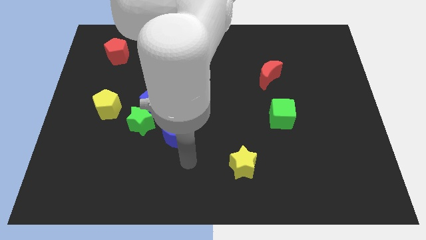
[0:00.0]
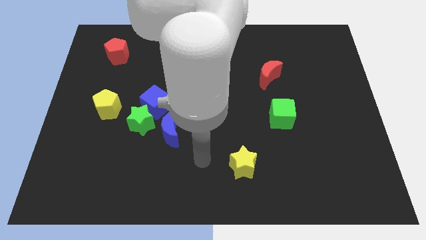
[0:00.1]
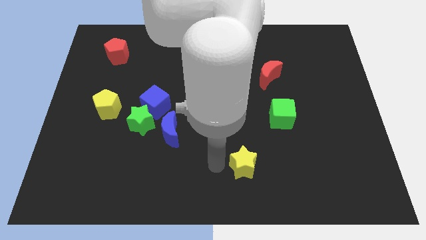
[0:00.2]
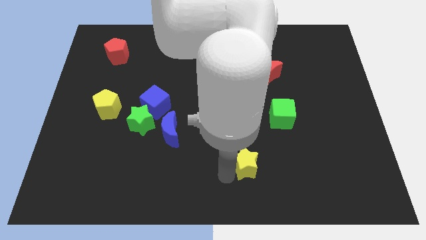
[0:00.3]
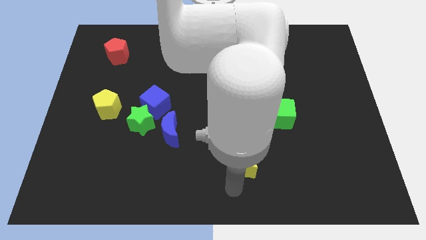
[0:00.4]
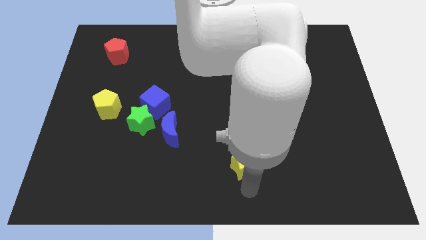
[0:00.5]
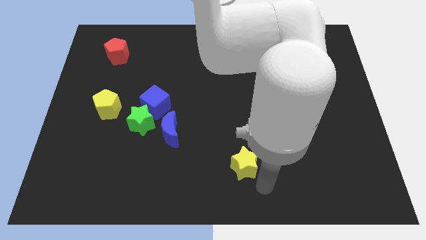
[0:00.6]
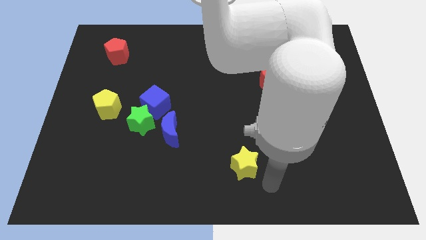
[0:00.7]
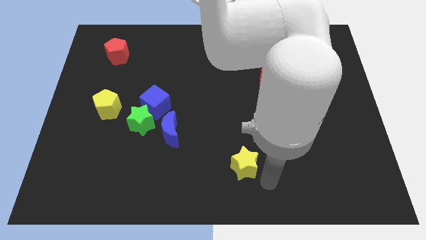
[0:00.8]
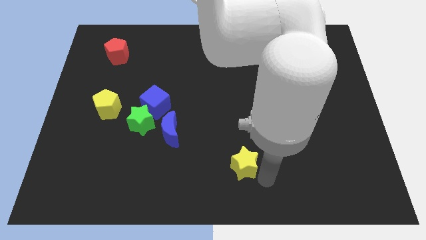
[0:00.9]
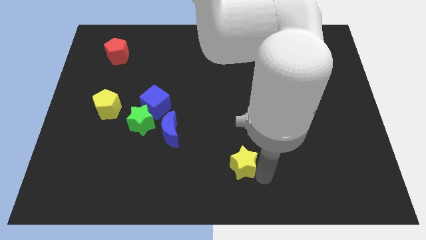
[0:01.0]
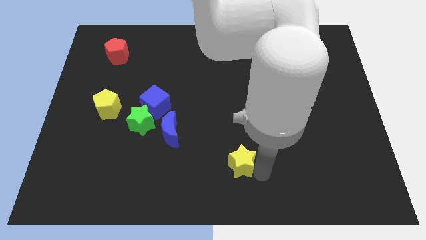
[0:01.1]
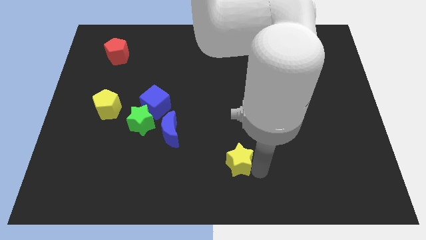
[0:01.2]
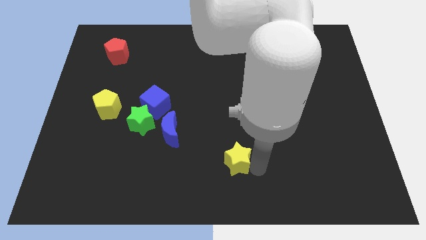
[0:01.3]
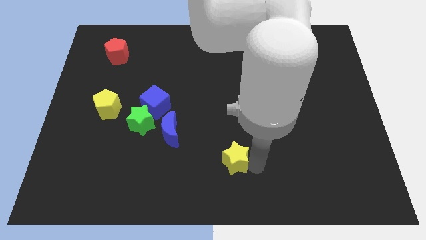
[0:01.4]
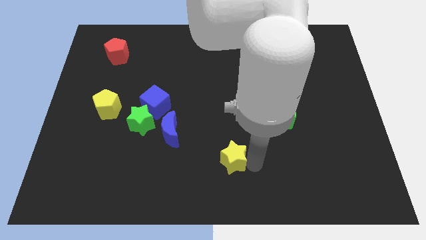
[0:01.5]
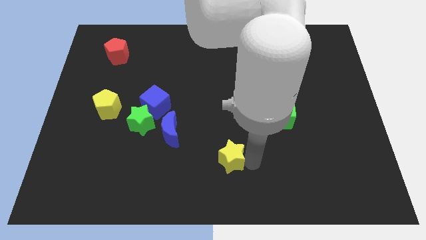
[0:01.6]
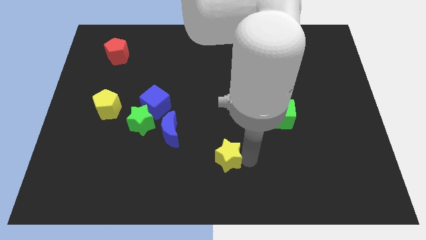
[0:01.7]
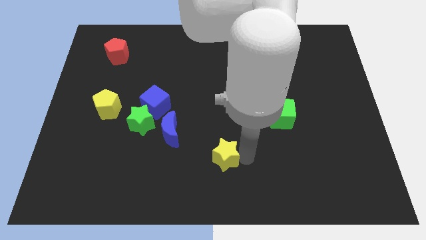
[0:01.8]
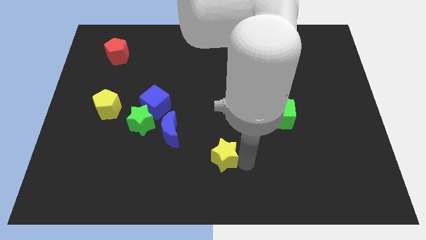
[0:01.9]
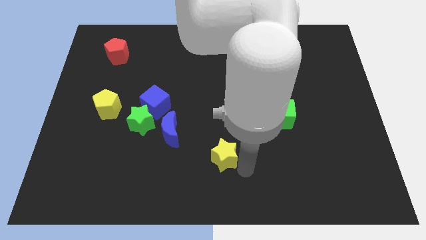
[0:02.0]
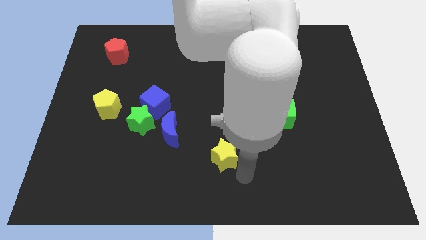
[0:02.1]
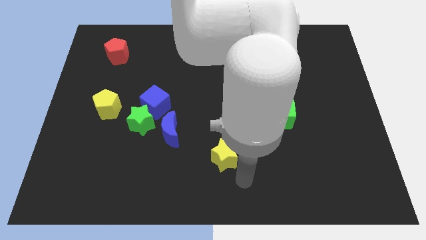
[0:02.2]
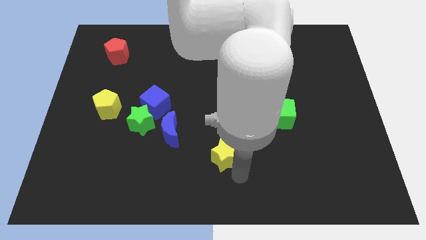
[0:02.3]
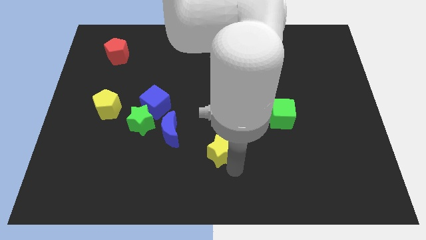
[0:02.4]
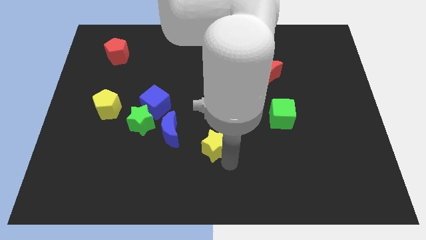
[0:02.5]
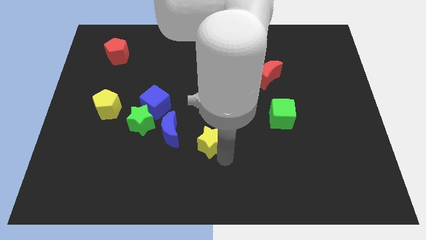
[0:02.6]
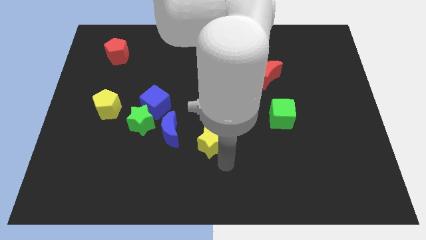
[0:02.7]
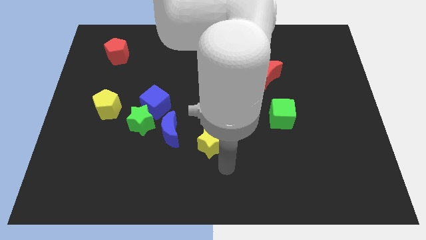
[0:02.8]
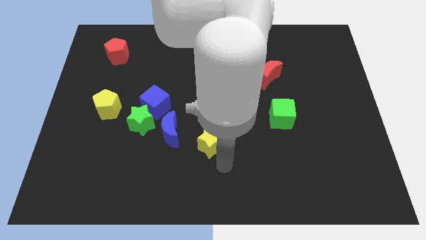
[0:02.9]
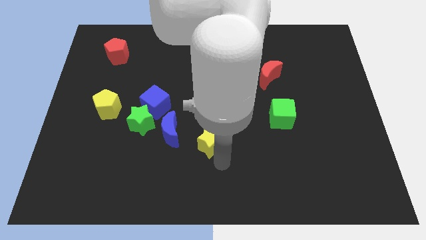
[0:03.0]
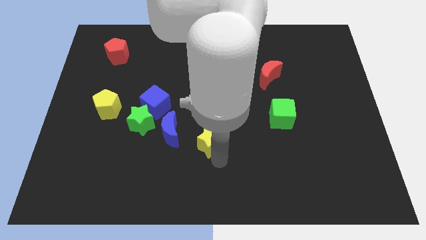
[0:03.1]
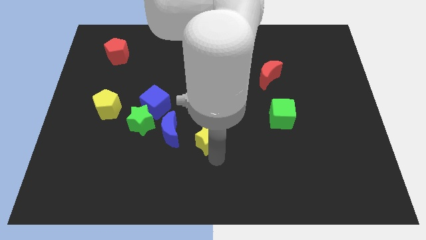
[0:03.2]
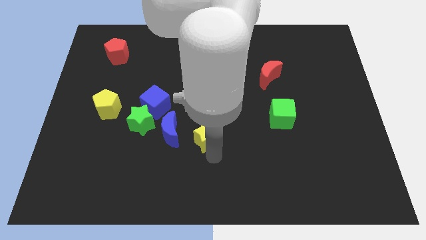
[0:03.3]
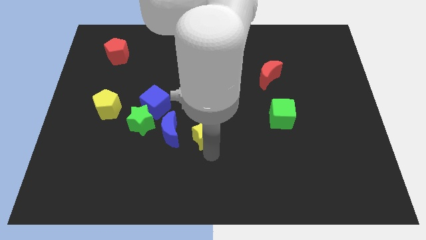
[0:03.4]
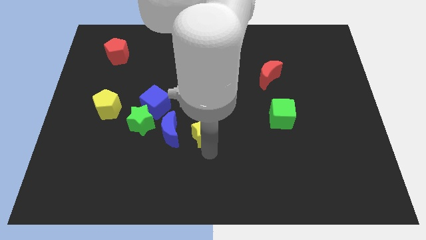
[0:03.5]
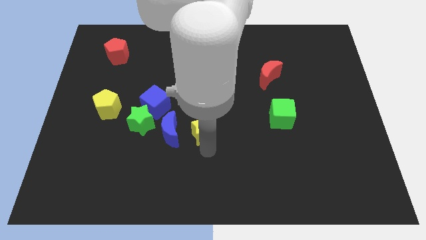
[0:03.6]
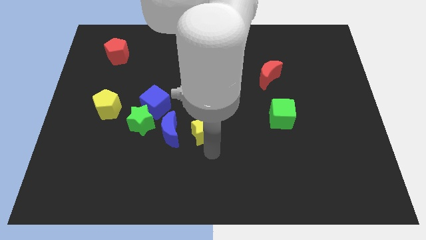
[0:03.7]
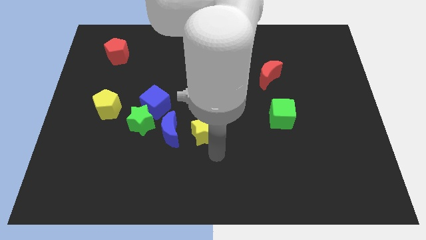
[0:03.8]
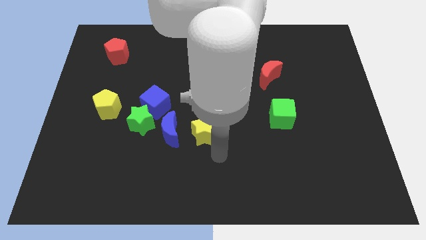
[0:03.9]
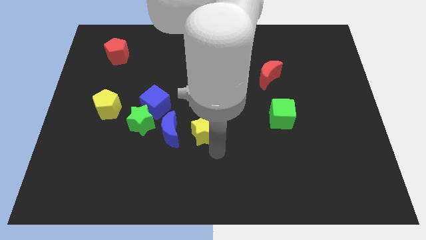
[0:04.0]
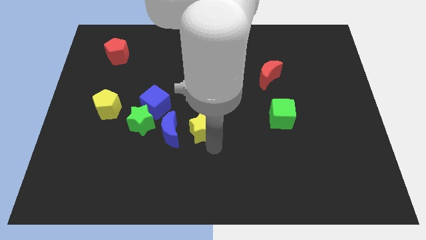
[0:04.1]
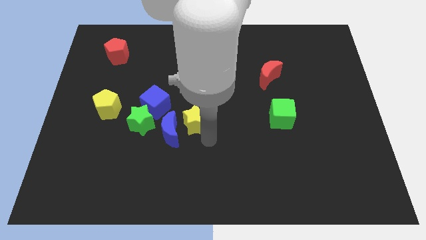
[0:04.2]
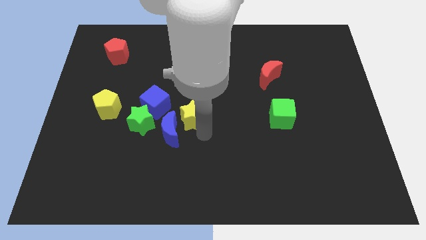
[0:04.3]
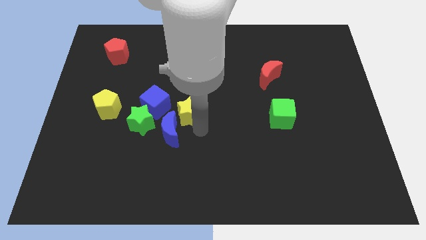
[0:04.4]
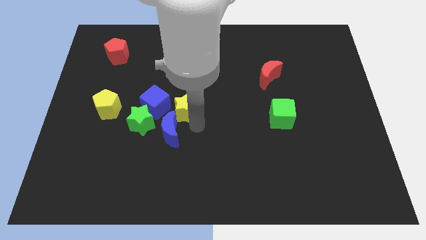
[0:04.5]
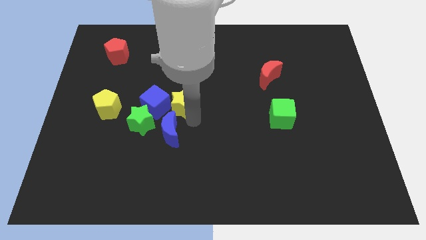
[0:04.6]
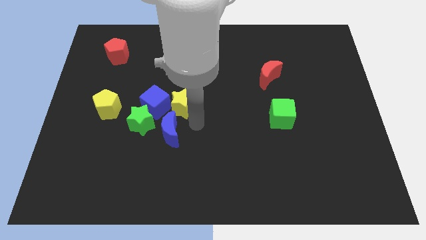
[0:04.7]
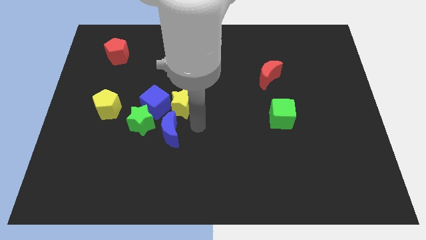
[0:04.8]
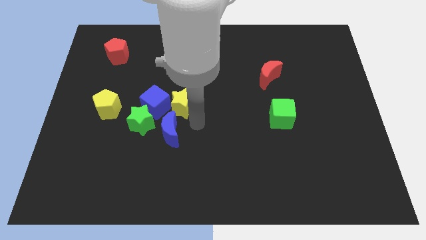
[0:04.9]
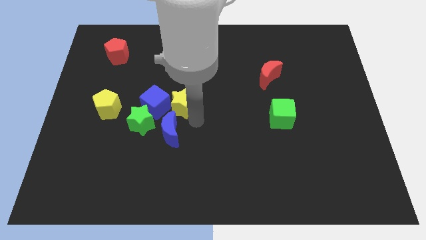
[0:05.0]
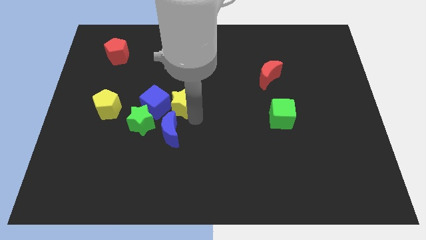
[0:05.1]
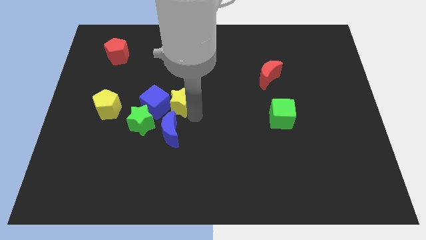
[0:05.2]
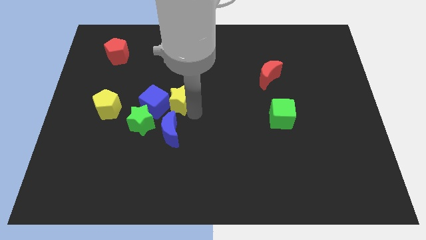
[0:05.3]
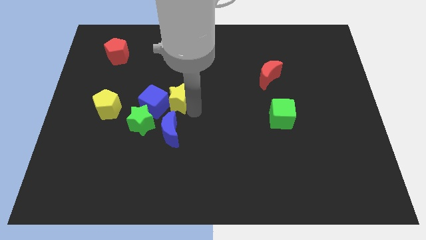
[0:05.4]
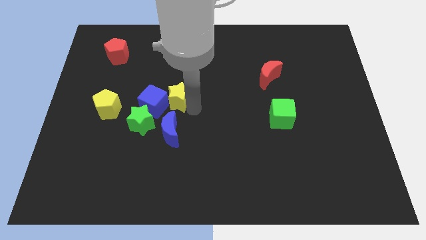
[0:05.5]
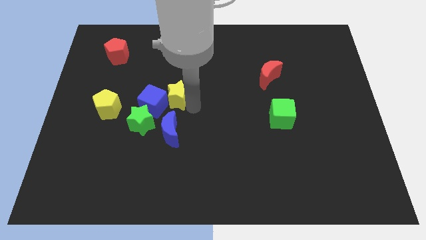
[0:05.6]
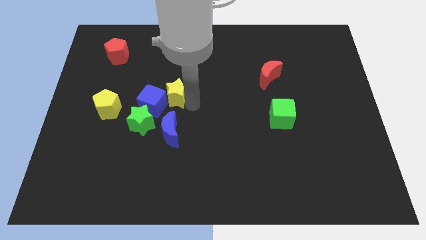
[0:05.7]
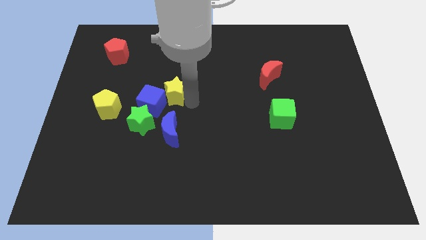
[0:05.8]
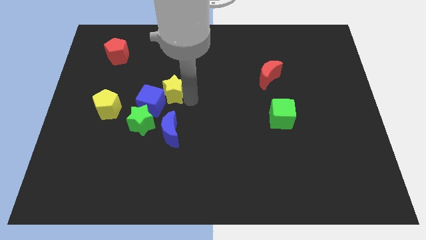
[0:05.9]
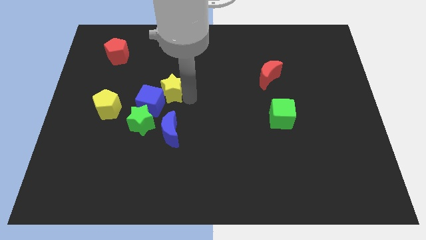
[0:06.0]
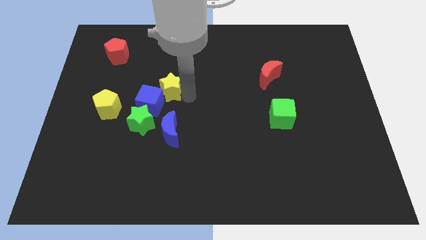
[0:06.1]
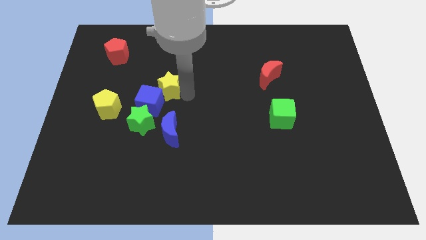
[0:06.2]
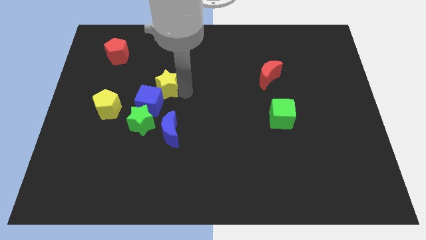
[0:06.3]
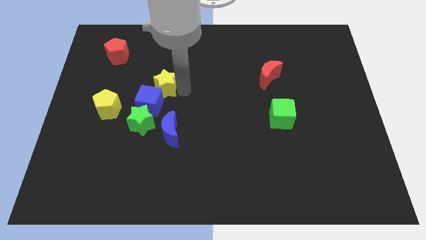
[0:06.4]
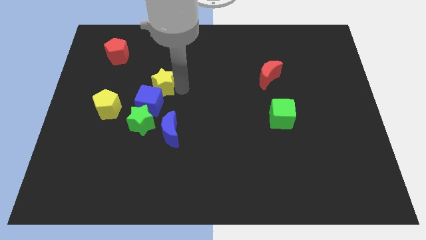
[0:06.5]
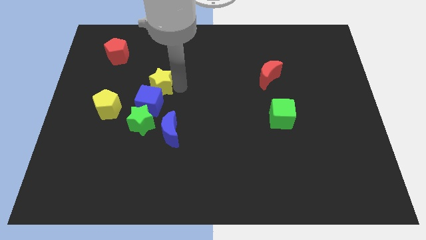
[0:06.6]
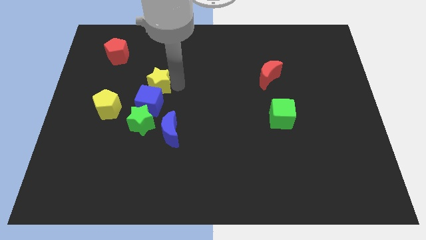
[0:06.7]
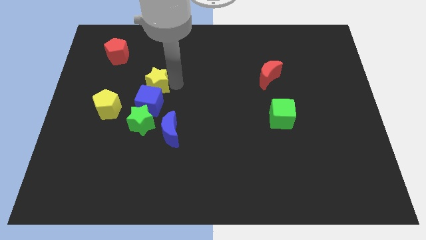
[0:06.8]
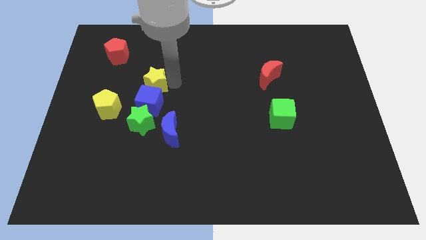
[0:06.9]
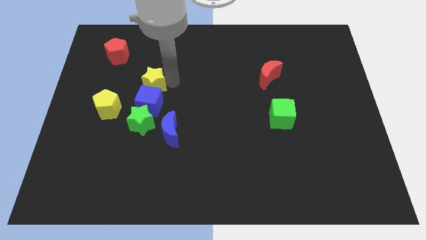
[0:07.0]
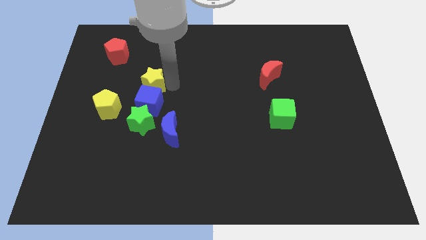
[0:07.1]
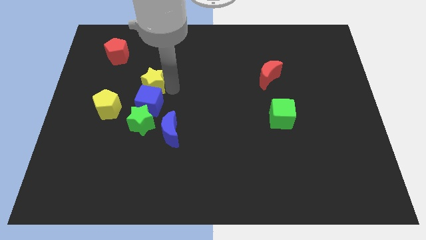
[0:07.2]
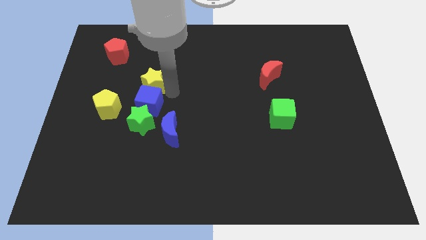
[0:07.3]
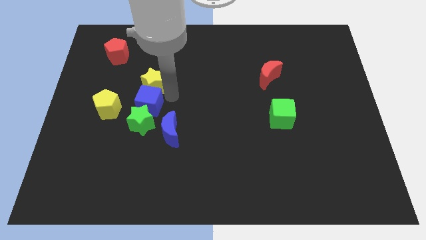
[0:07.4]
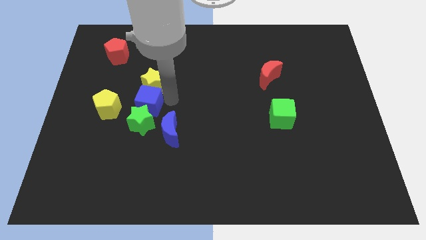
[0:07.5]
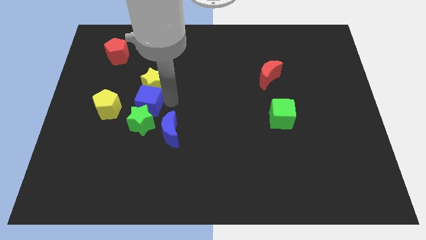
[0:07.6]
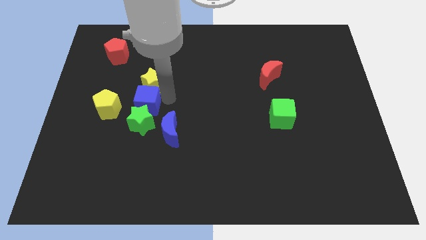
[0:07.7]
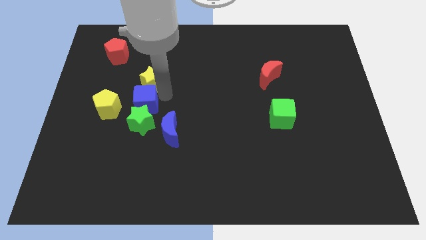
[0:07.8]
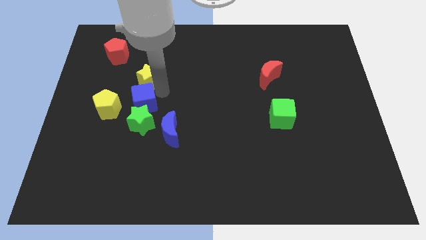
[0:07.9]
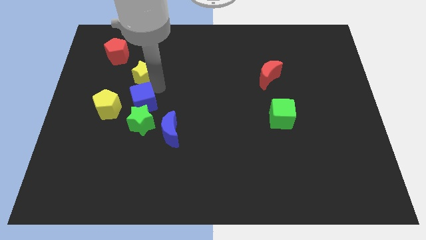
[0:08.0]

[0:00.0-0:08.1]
move the yellow star to the bottom right side of the red pentagon

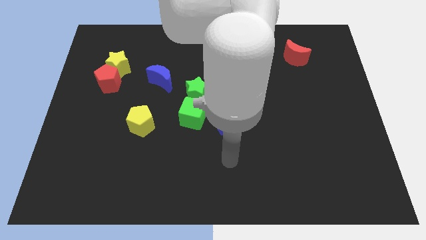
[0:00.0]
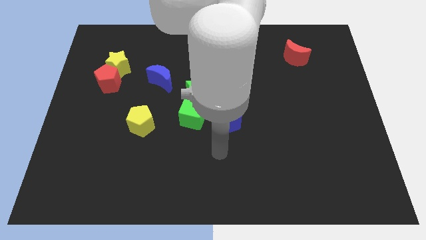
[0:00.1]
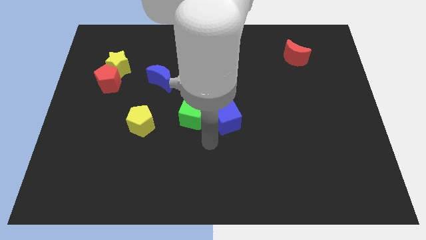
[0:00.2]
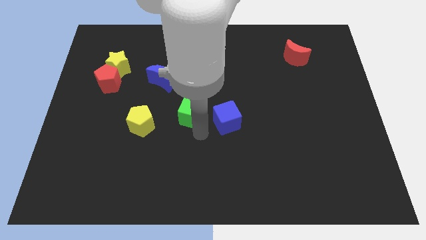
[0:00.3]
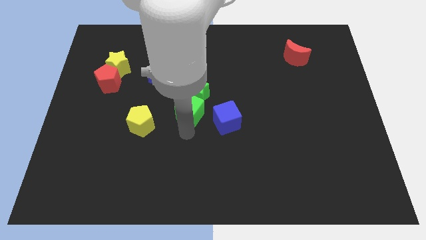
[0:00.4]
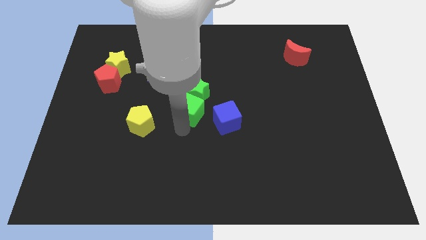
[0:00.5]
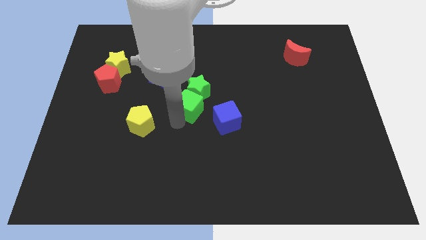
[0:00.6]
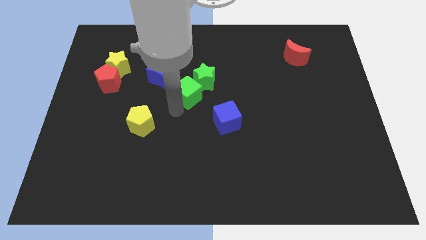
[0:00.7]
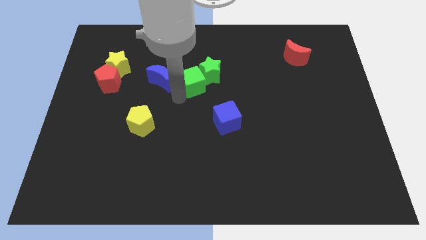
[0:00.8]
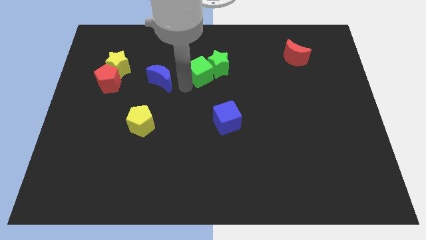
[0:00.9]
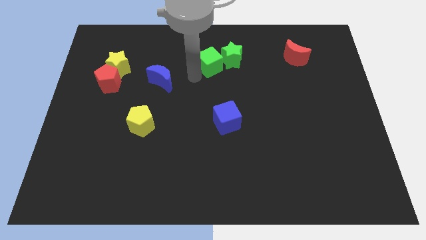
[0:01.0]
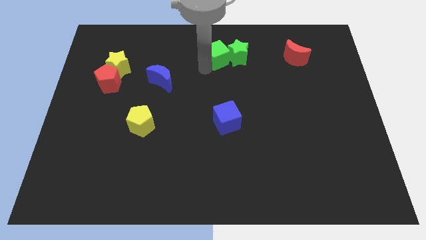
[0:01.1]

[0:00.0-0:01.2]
slide the green star left of the red moon
